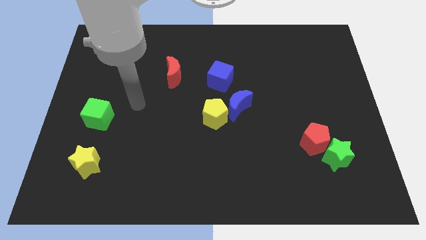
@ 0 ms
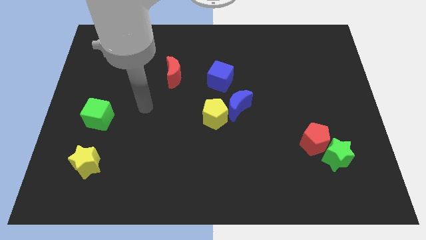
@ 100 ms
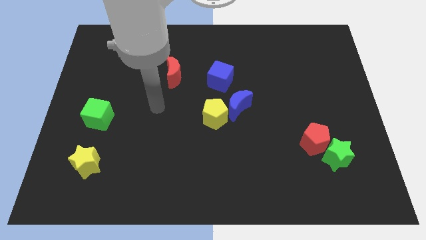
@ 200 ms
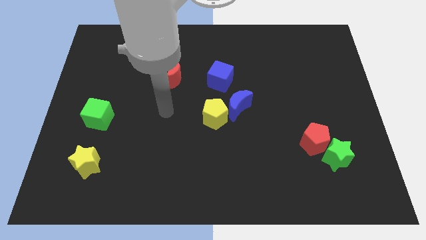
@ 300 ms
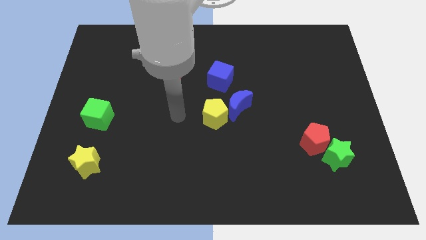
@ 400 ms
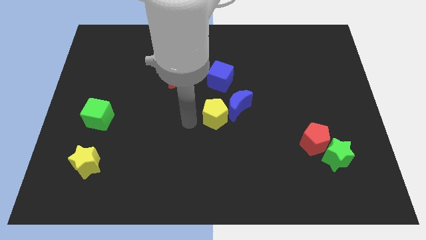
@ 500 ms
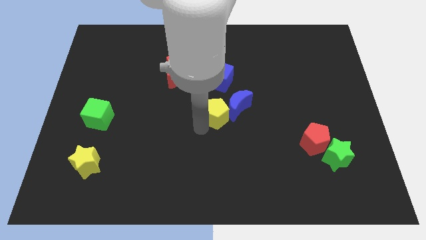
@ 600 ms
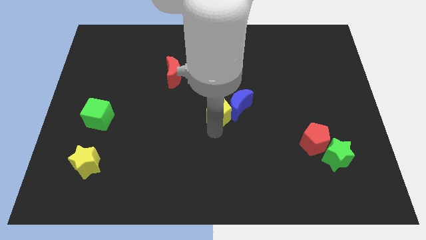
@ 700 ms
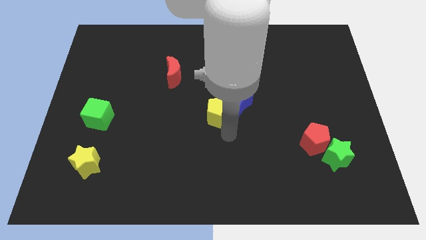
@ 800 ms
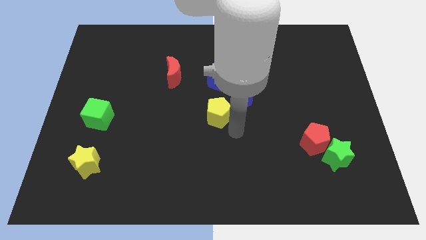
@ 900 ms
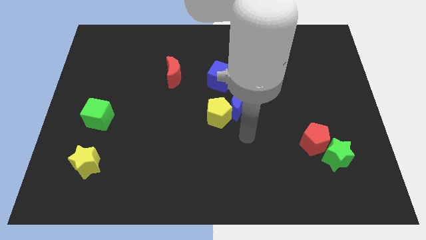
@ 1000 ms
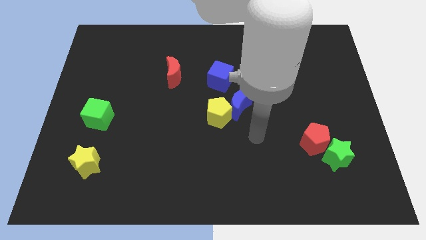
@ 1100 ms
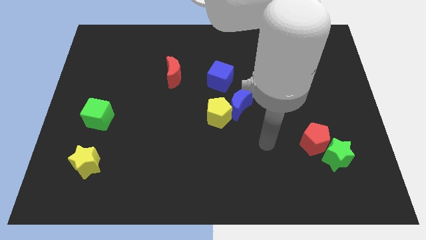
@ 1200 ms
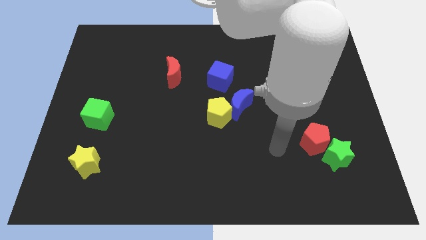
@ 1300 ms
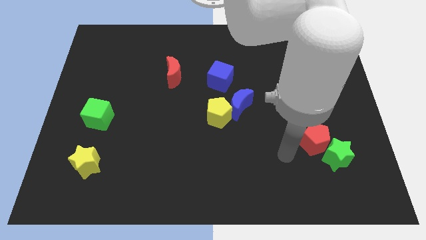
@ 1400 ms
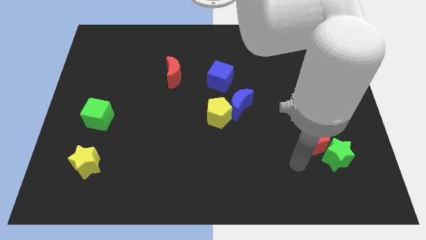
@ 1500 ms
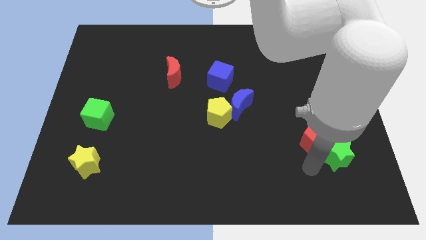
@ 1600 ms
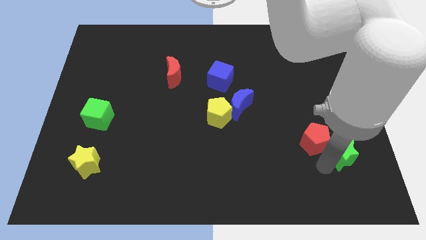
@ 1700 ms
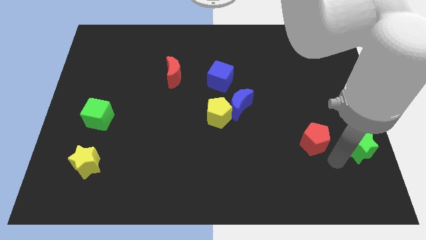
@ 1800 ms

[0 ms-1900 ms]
pull the red pentagon apart from the green star

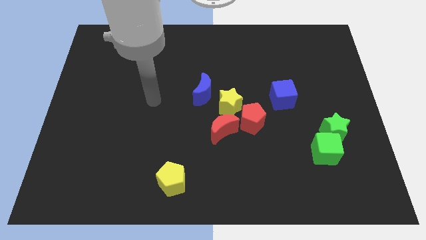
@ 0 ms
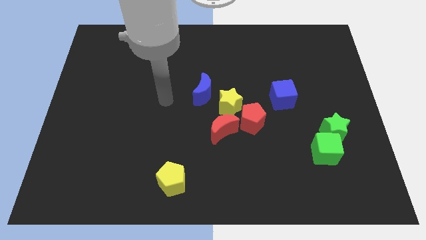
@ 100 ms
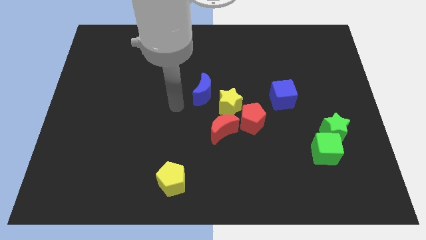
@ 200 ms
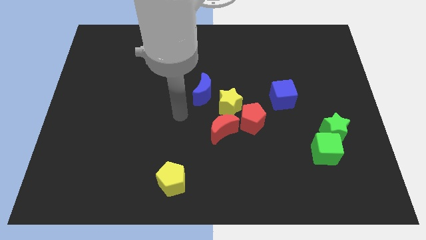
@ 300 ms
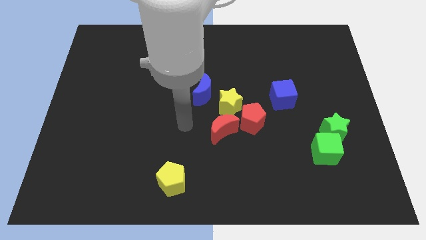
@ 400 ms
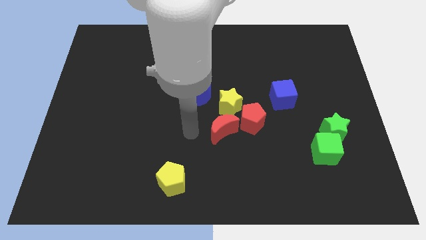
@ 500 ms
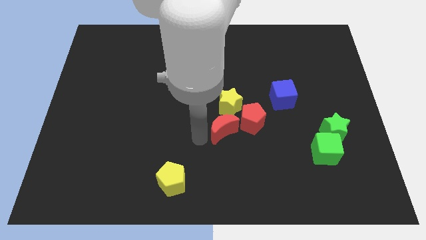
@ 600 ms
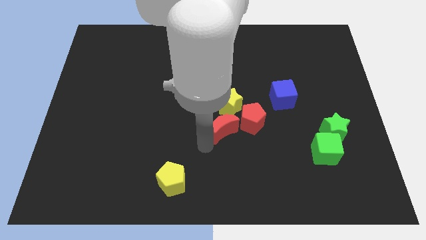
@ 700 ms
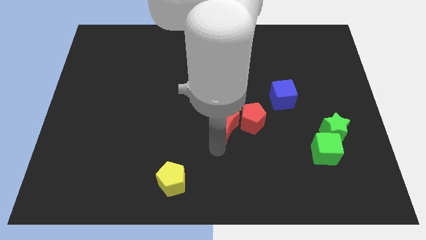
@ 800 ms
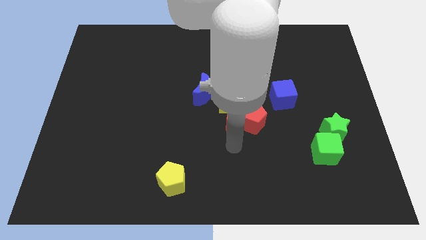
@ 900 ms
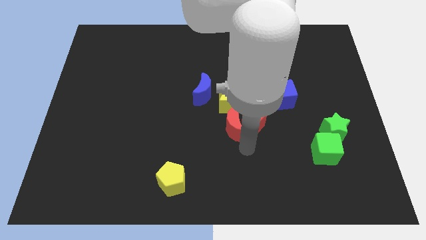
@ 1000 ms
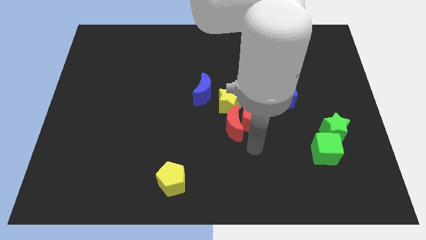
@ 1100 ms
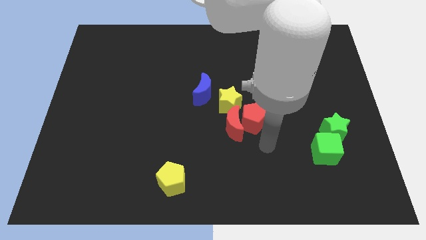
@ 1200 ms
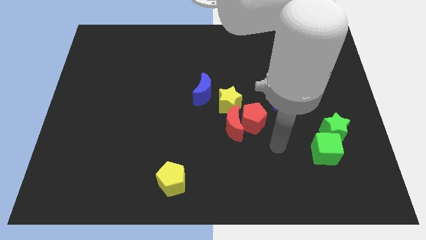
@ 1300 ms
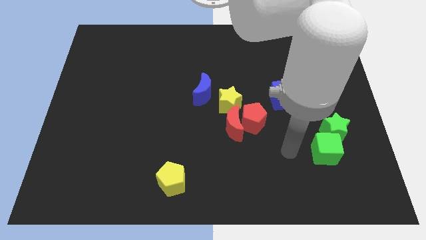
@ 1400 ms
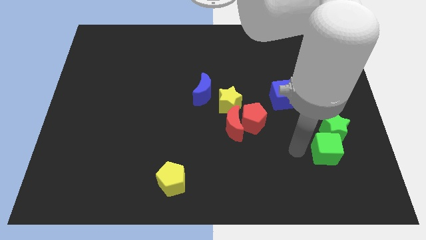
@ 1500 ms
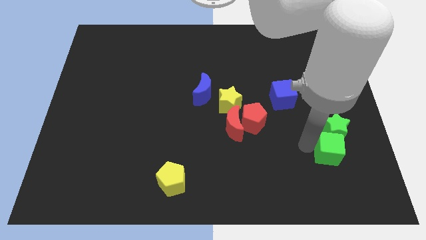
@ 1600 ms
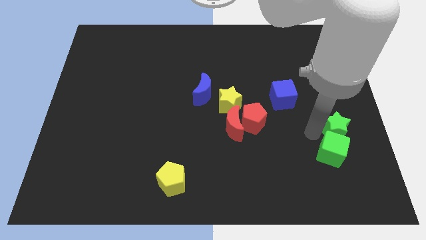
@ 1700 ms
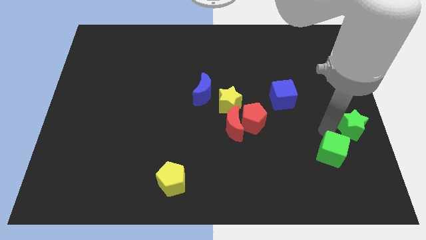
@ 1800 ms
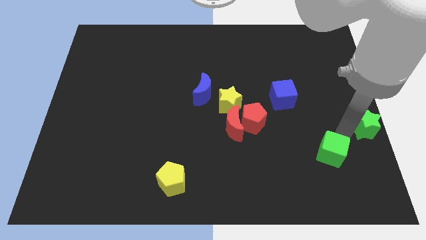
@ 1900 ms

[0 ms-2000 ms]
separate the green cube from the green star

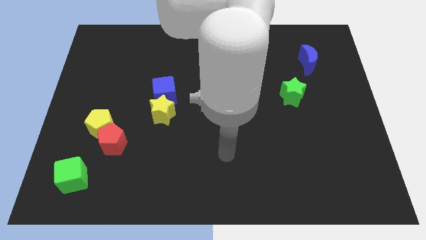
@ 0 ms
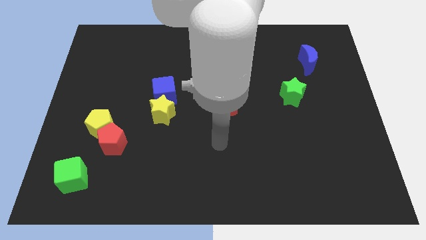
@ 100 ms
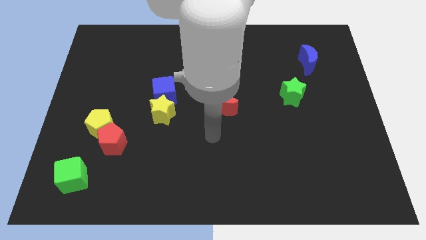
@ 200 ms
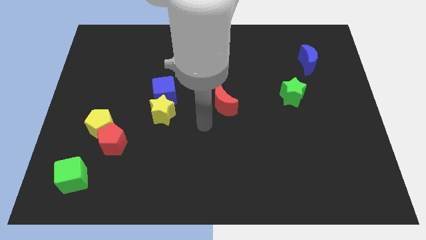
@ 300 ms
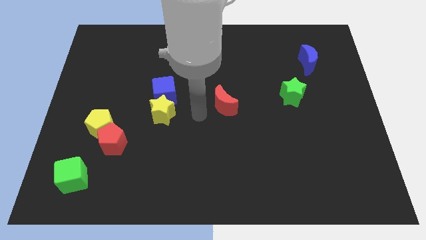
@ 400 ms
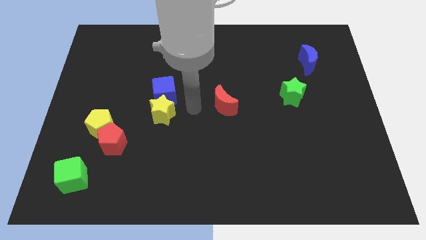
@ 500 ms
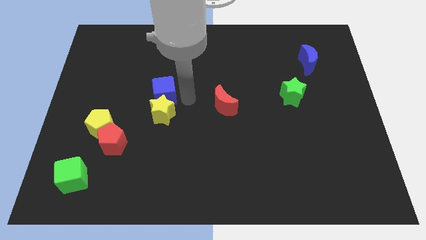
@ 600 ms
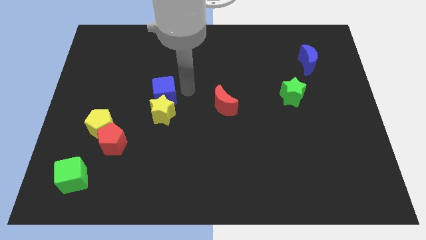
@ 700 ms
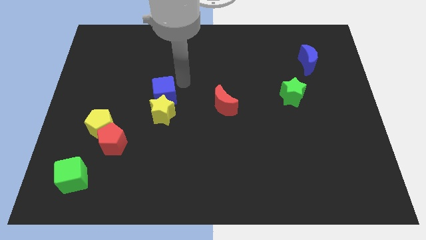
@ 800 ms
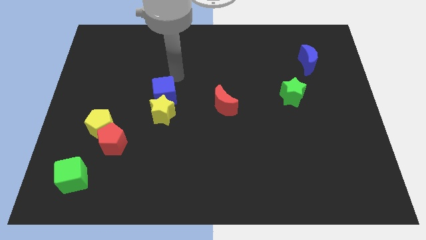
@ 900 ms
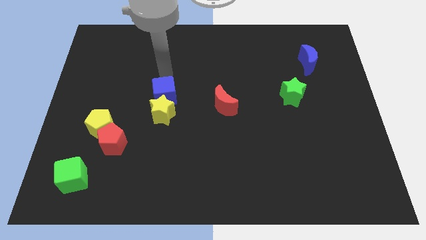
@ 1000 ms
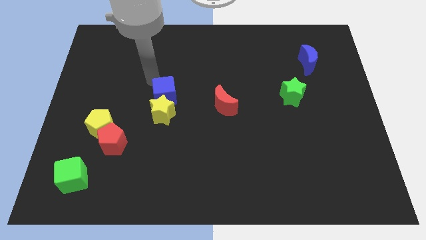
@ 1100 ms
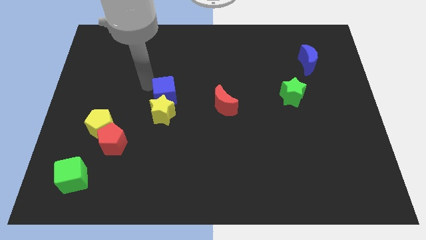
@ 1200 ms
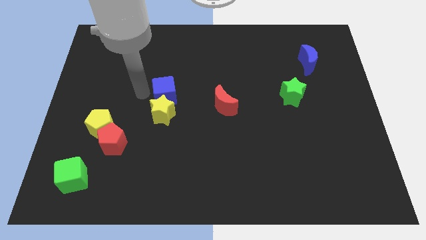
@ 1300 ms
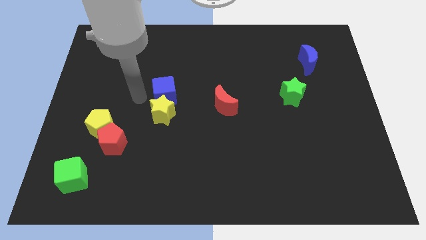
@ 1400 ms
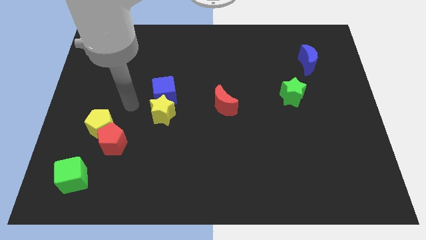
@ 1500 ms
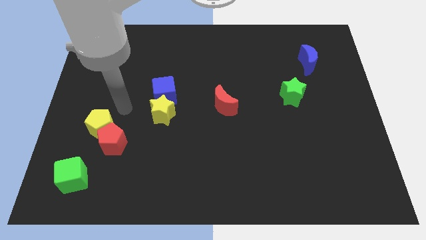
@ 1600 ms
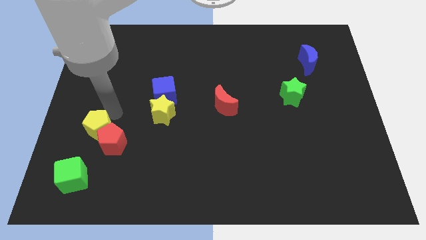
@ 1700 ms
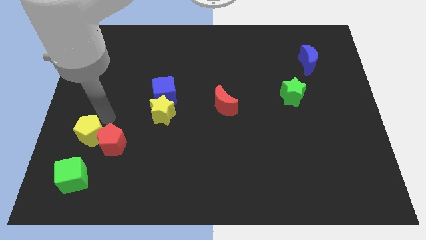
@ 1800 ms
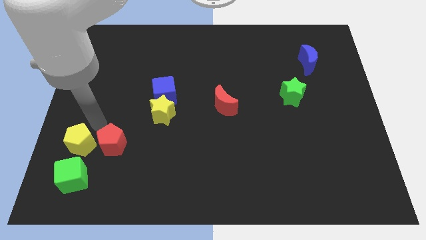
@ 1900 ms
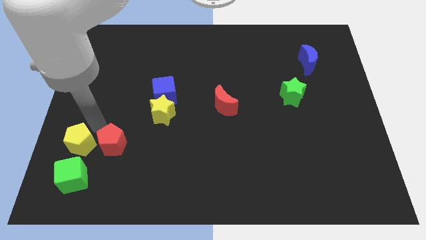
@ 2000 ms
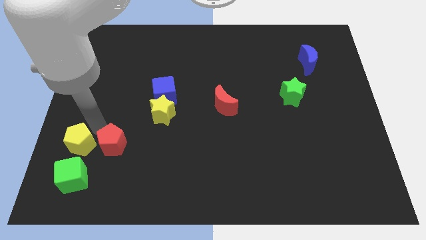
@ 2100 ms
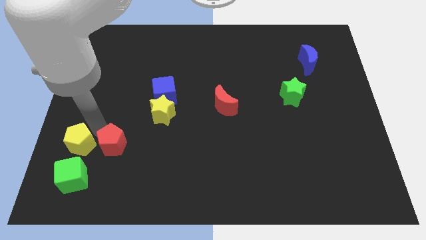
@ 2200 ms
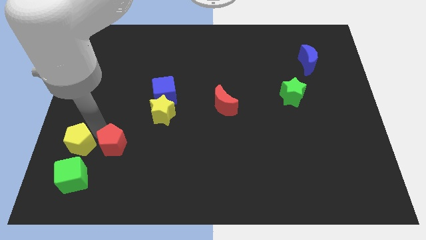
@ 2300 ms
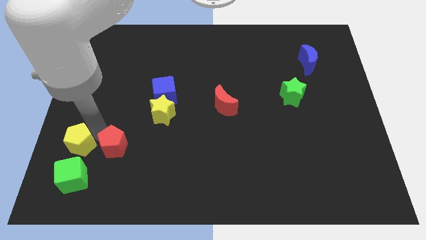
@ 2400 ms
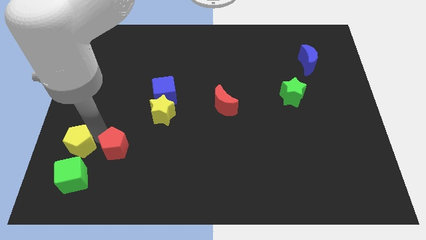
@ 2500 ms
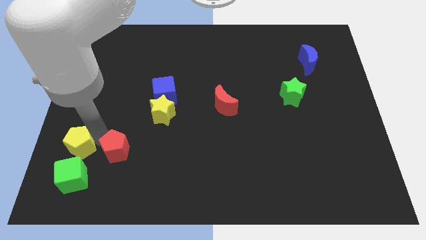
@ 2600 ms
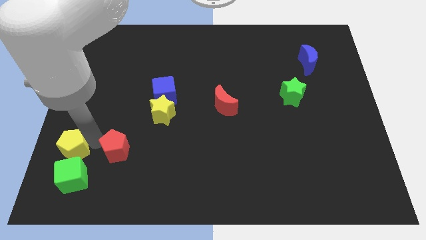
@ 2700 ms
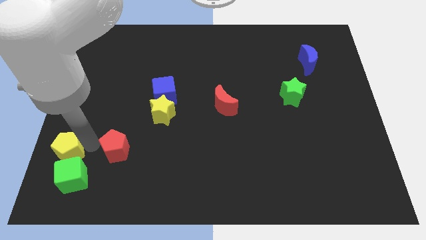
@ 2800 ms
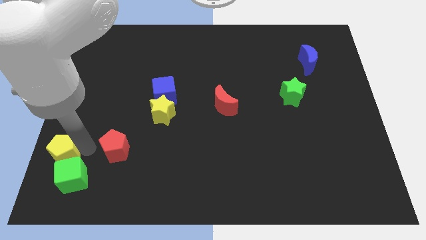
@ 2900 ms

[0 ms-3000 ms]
pull the red pentagon apart from the yellow pentagon

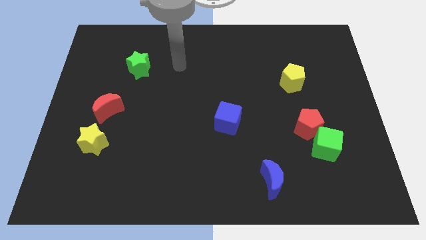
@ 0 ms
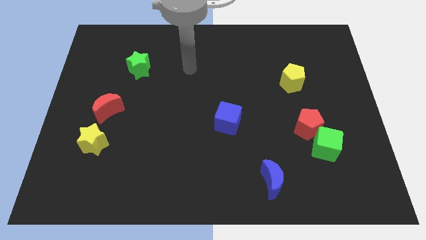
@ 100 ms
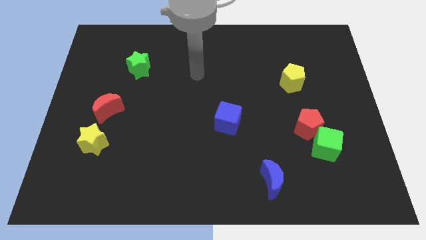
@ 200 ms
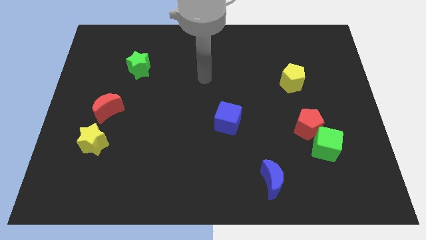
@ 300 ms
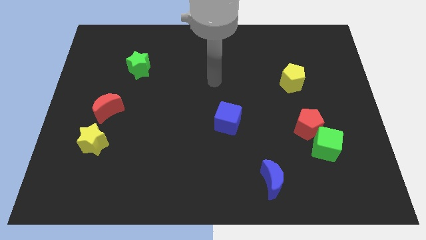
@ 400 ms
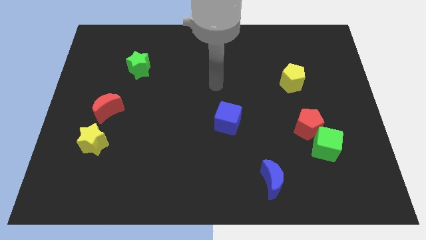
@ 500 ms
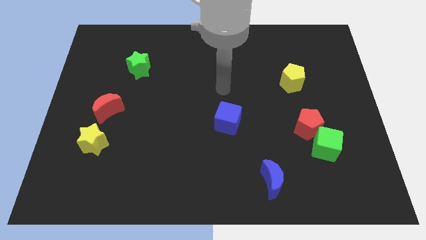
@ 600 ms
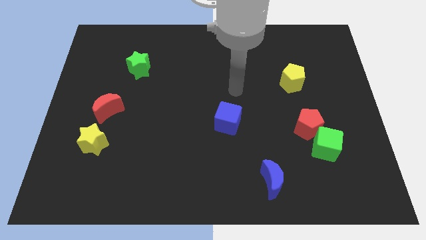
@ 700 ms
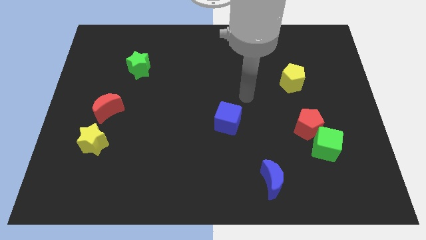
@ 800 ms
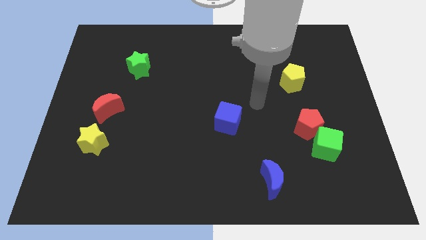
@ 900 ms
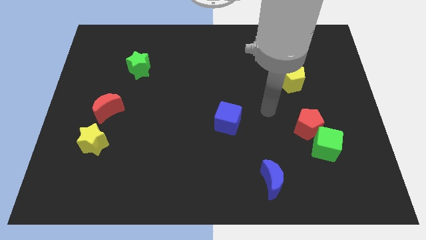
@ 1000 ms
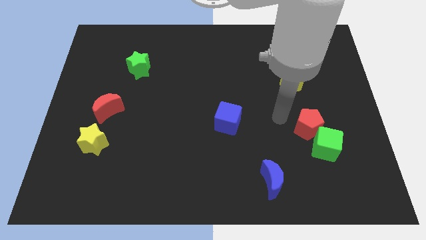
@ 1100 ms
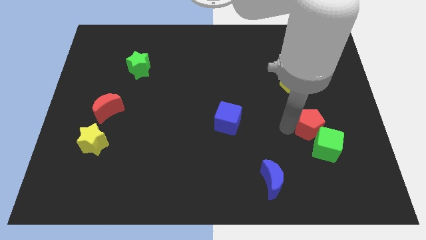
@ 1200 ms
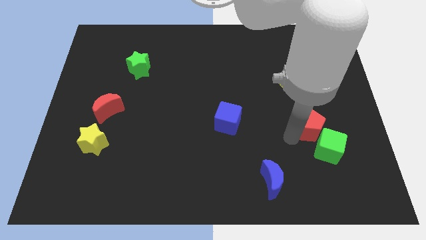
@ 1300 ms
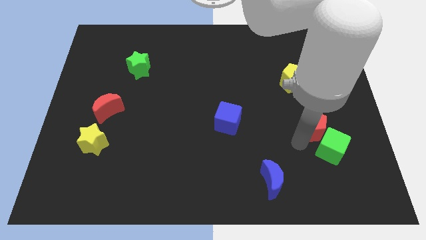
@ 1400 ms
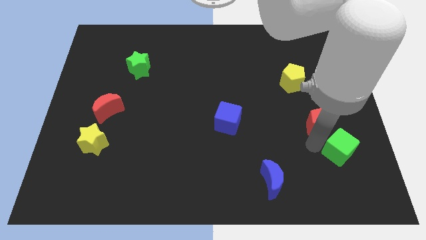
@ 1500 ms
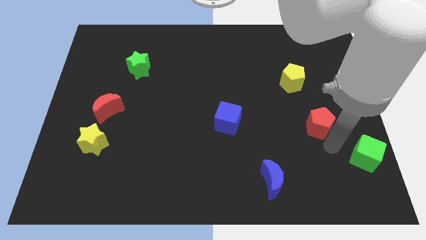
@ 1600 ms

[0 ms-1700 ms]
pull the red pentagon apart from the green cube

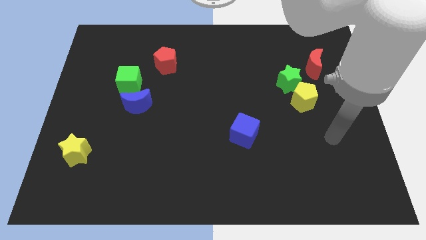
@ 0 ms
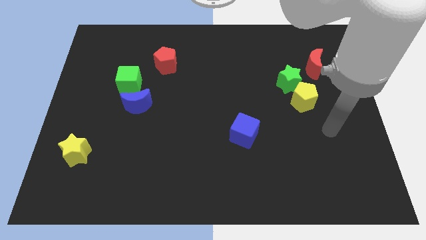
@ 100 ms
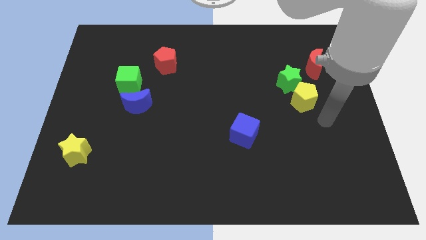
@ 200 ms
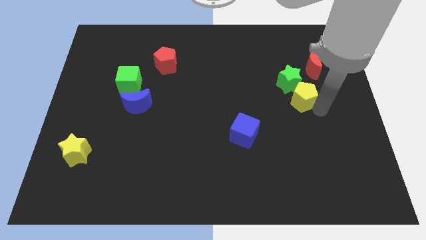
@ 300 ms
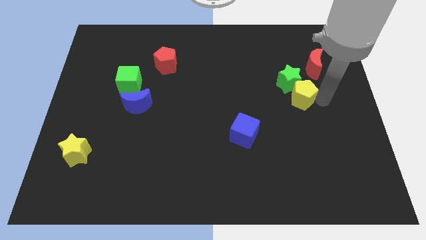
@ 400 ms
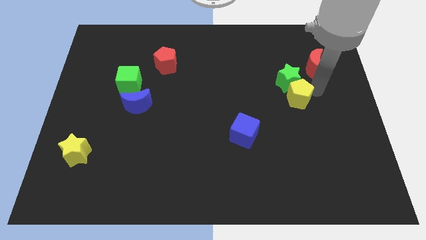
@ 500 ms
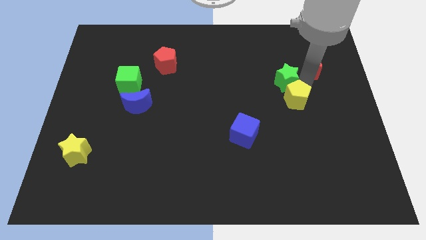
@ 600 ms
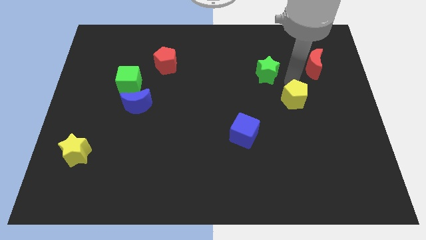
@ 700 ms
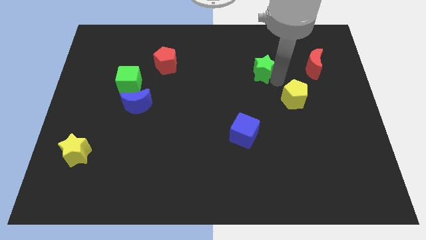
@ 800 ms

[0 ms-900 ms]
pull the yellow pentagon apart from the green star
